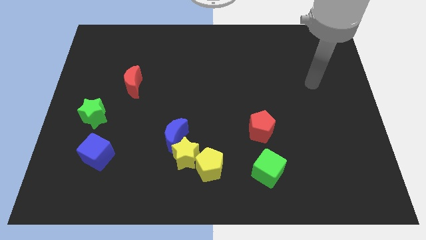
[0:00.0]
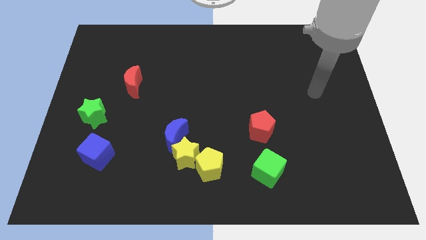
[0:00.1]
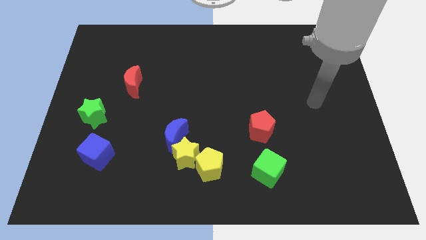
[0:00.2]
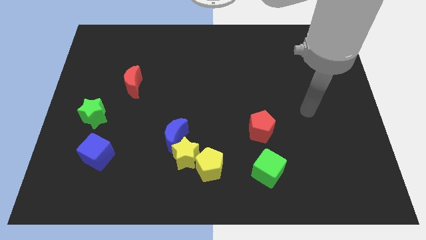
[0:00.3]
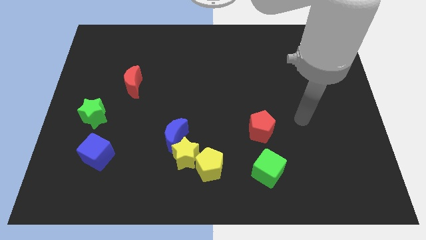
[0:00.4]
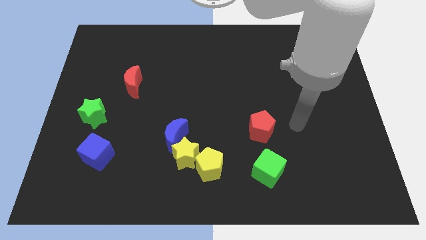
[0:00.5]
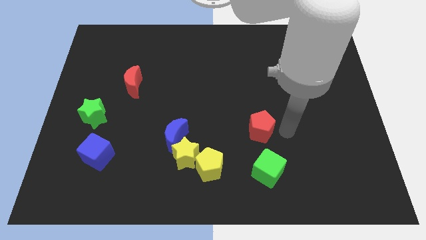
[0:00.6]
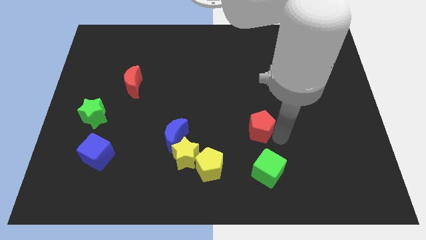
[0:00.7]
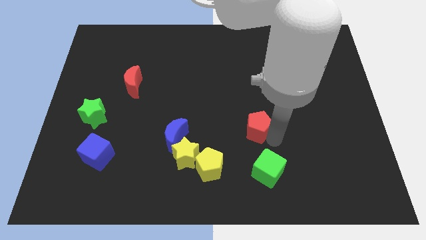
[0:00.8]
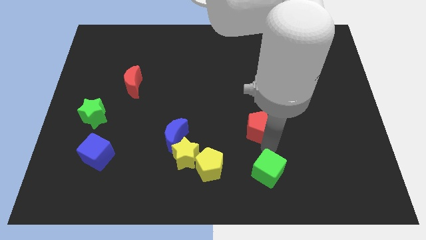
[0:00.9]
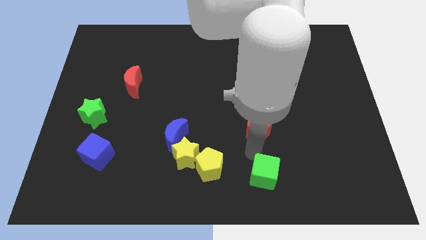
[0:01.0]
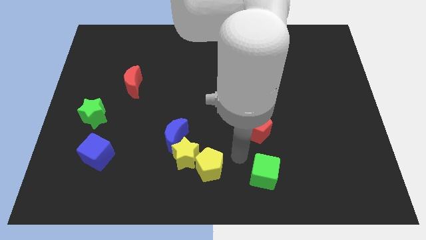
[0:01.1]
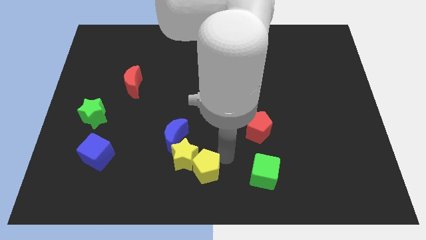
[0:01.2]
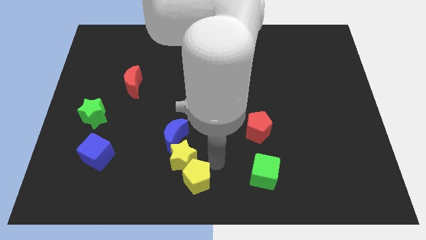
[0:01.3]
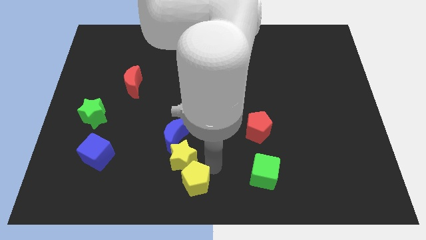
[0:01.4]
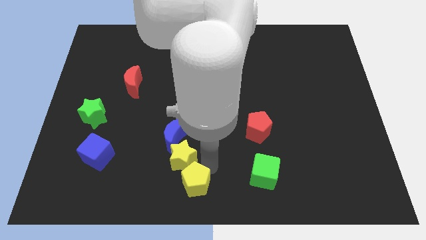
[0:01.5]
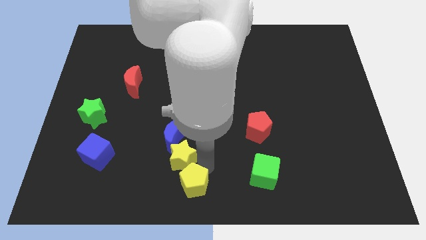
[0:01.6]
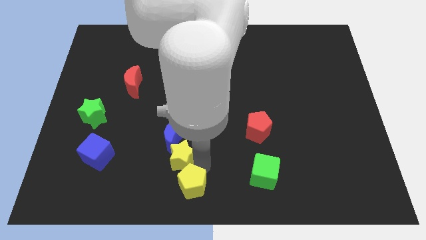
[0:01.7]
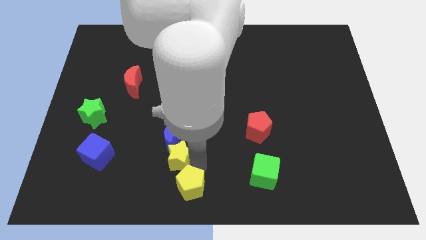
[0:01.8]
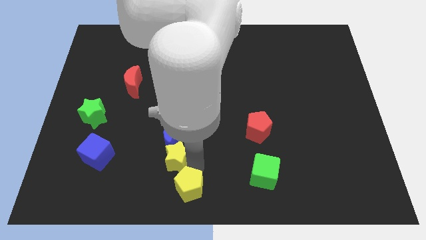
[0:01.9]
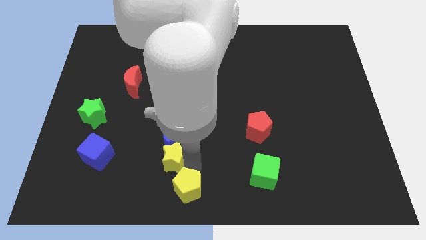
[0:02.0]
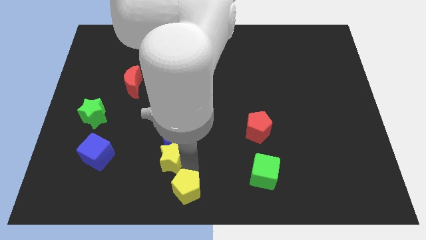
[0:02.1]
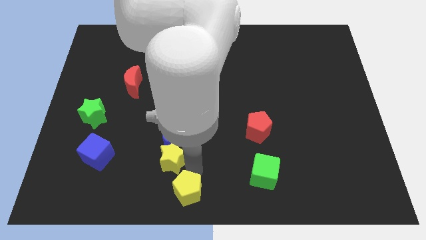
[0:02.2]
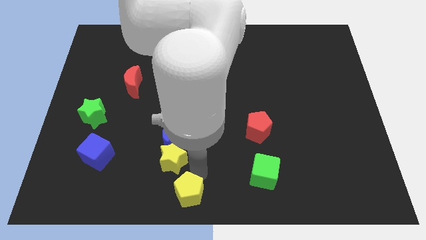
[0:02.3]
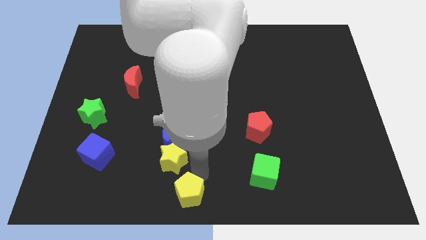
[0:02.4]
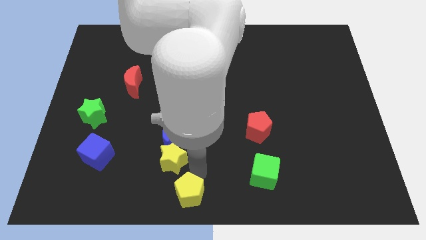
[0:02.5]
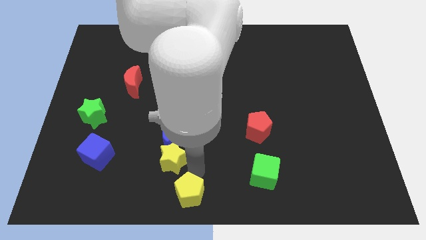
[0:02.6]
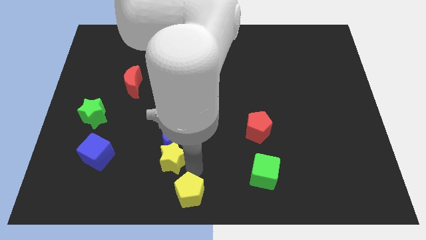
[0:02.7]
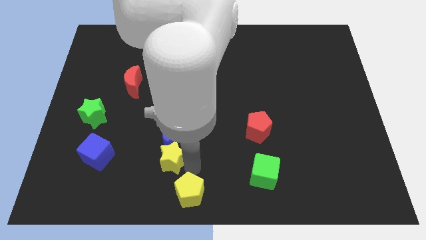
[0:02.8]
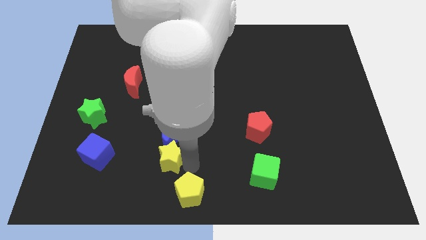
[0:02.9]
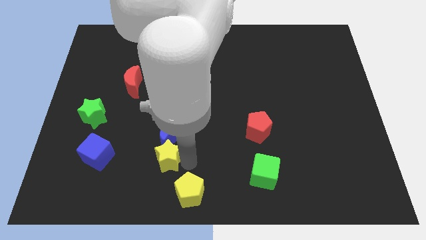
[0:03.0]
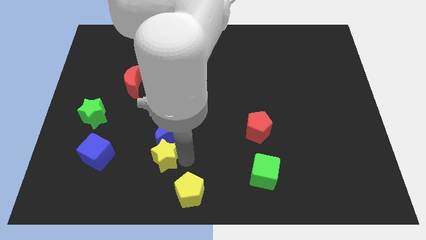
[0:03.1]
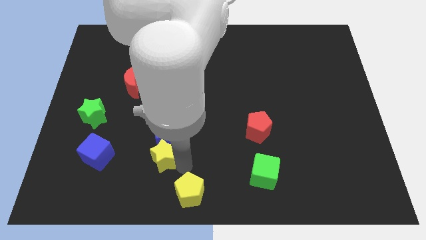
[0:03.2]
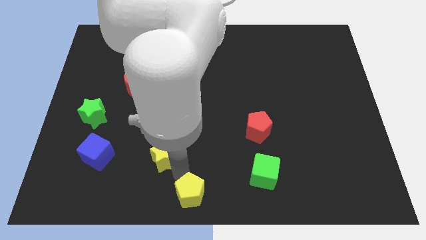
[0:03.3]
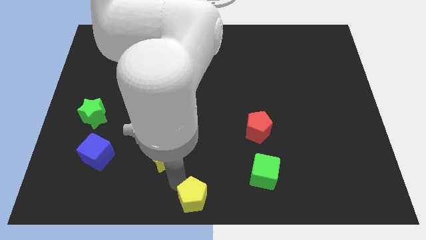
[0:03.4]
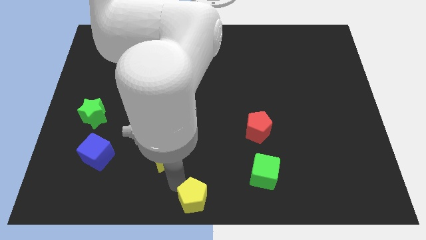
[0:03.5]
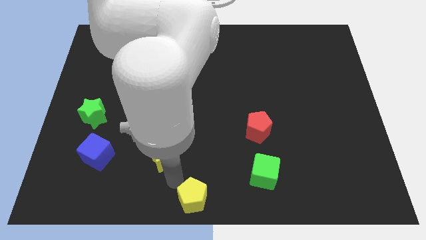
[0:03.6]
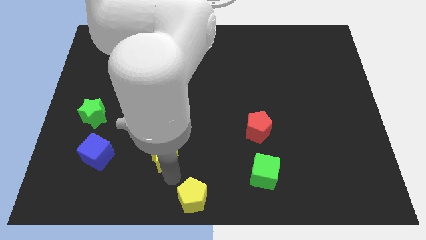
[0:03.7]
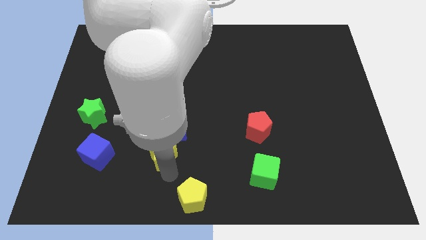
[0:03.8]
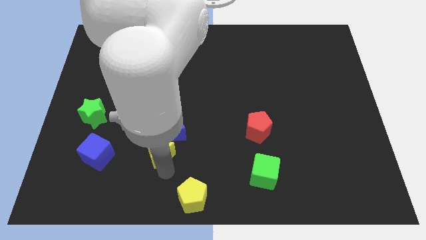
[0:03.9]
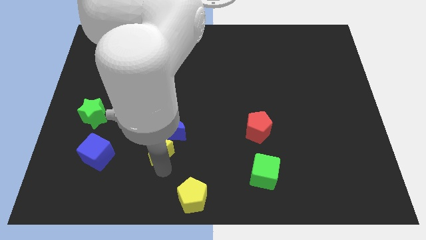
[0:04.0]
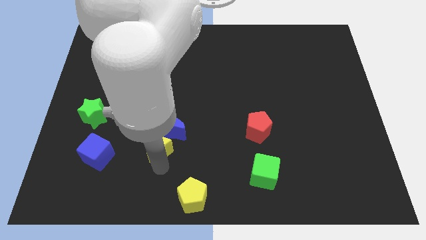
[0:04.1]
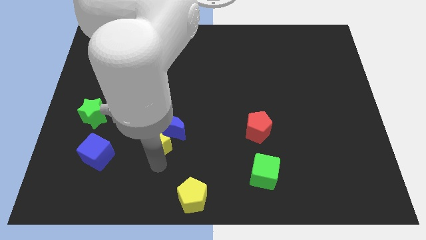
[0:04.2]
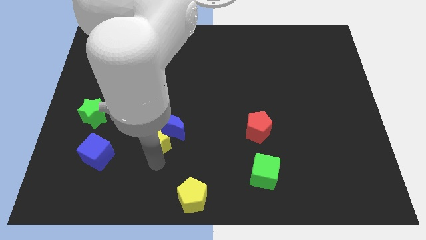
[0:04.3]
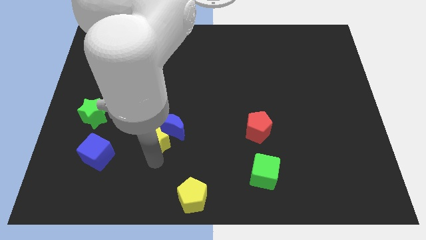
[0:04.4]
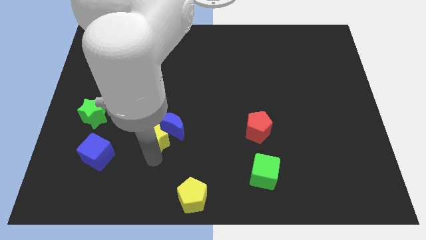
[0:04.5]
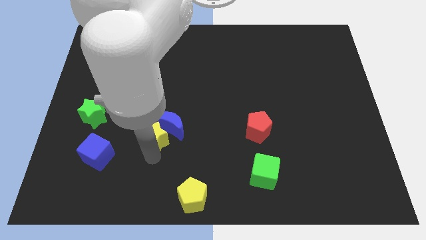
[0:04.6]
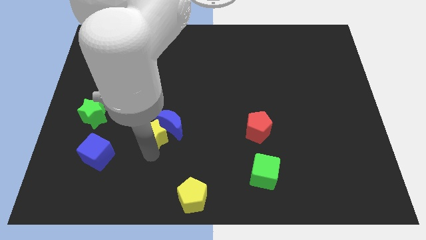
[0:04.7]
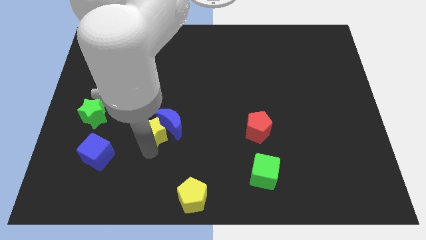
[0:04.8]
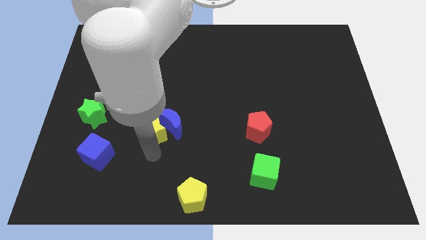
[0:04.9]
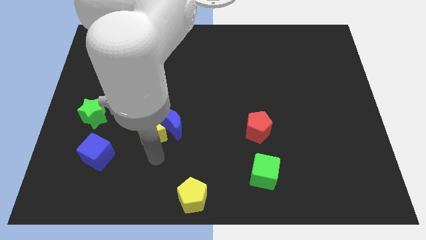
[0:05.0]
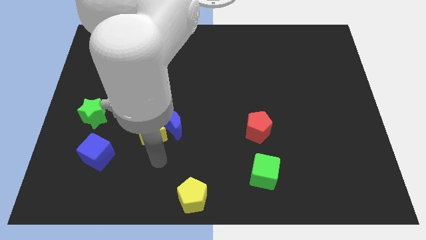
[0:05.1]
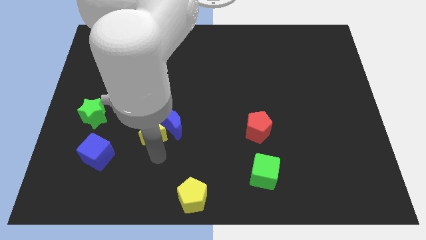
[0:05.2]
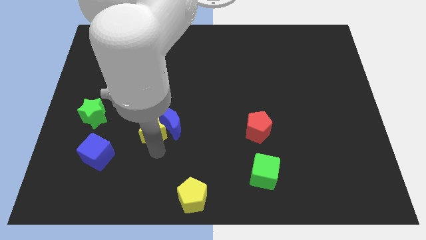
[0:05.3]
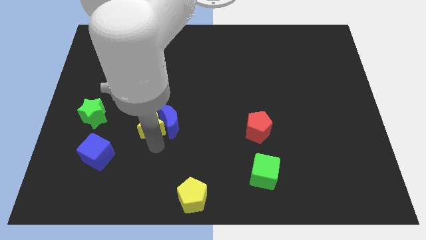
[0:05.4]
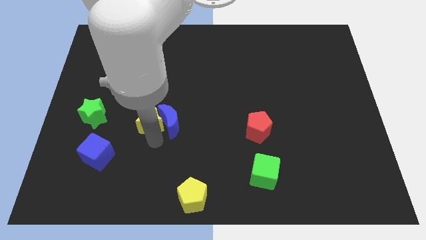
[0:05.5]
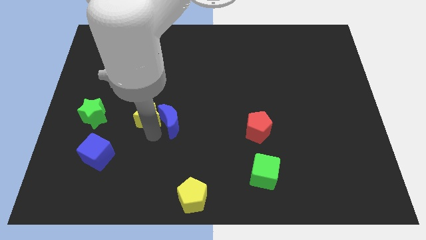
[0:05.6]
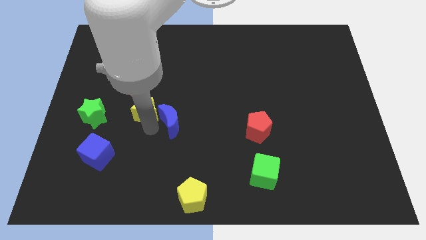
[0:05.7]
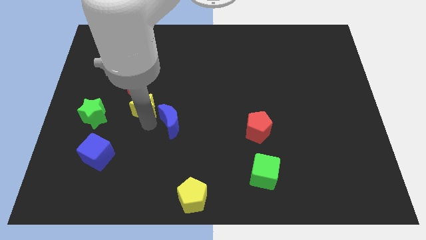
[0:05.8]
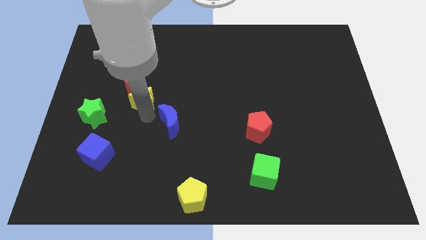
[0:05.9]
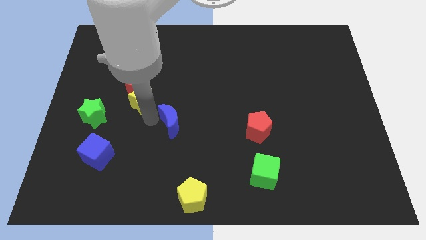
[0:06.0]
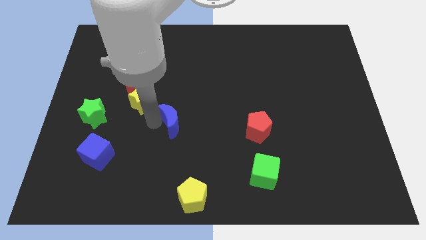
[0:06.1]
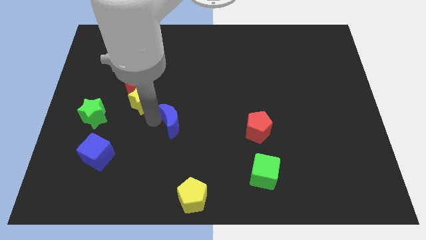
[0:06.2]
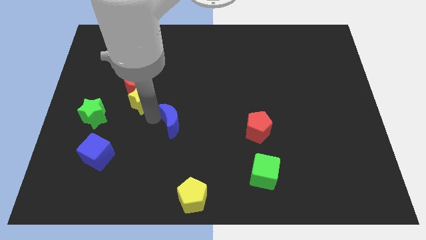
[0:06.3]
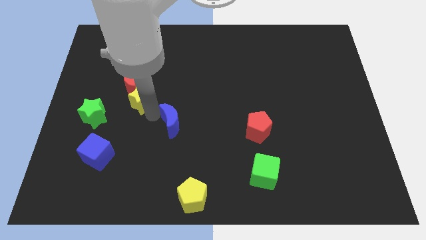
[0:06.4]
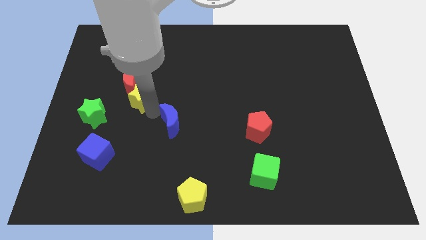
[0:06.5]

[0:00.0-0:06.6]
move the yellow star close to the red moon
